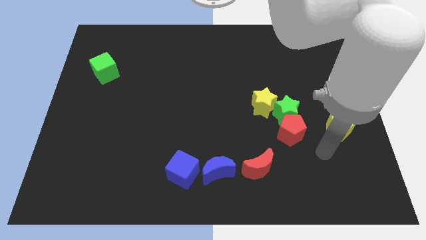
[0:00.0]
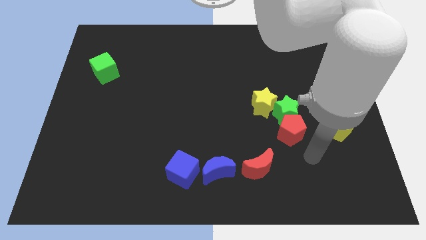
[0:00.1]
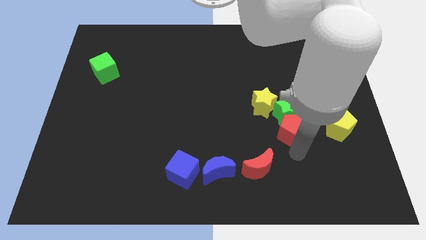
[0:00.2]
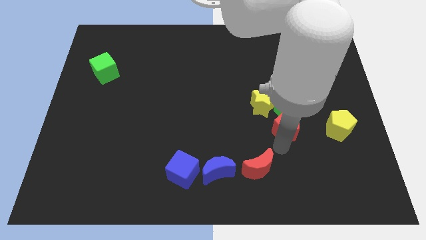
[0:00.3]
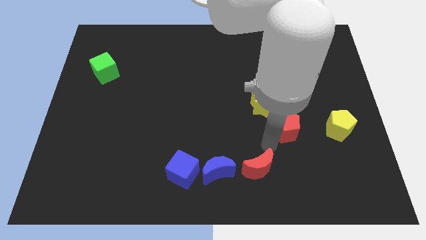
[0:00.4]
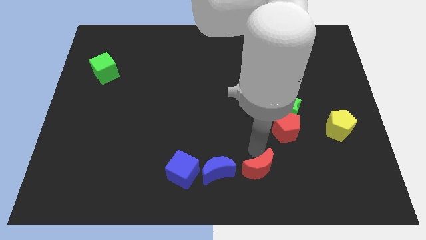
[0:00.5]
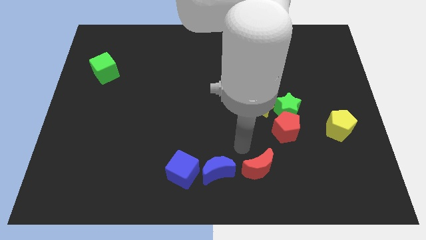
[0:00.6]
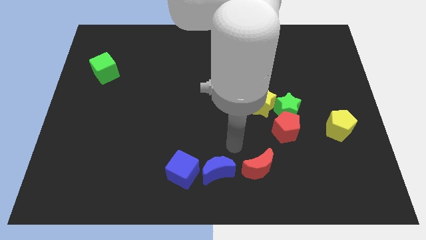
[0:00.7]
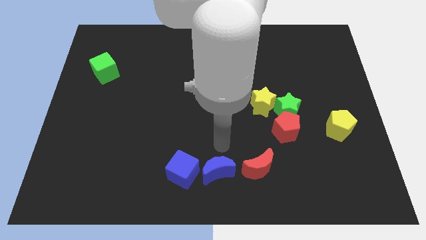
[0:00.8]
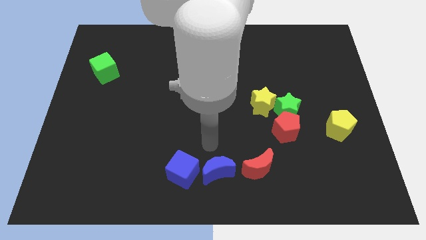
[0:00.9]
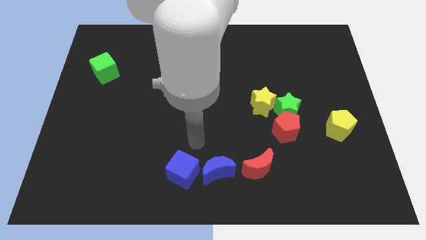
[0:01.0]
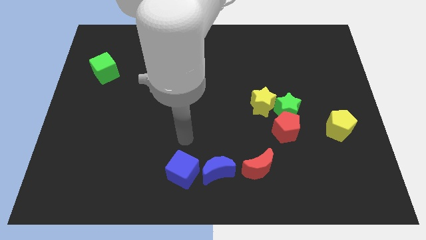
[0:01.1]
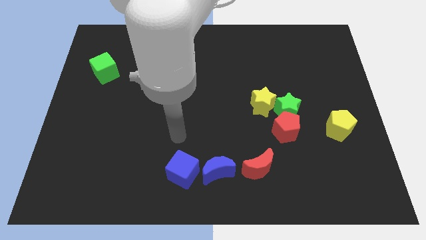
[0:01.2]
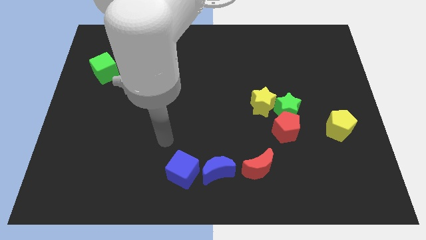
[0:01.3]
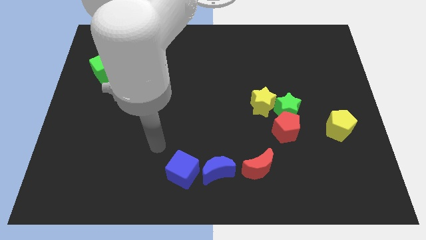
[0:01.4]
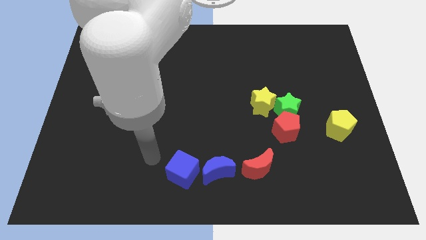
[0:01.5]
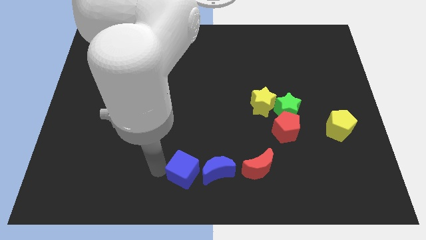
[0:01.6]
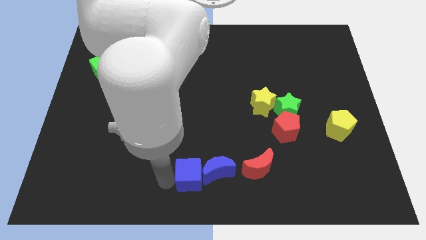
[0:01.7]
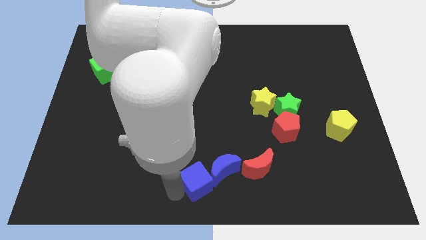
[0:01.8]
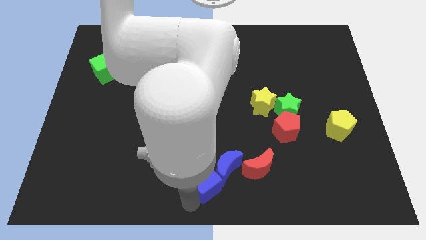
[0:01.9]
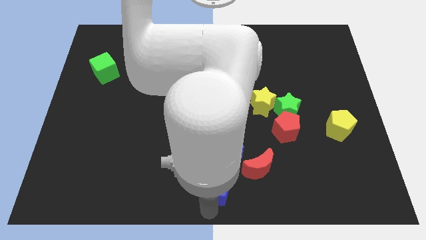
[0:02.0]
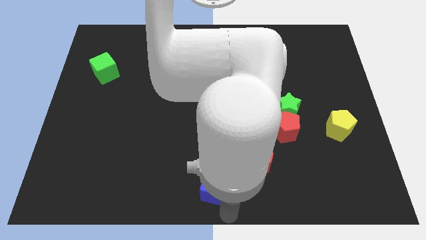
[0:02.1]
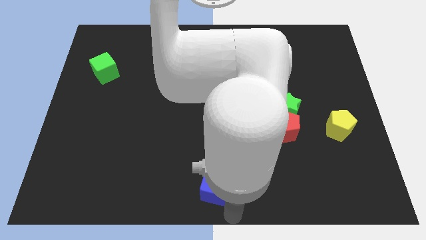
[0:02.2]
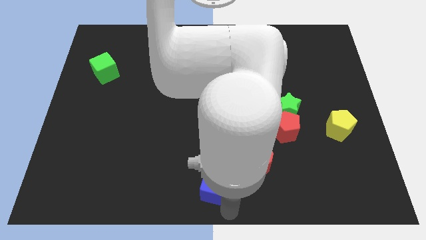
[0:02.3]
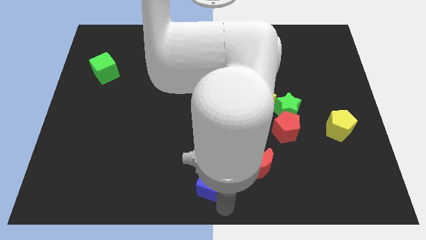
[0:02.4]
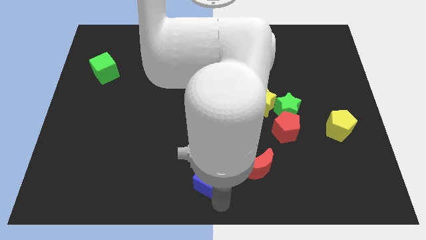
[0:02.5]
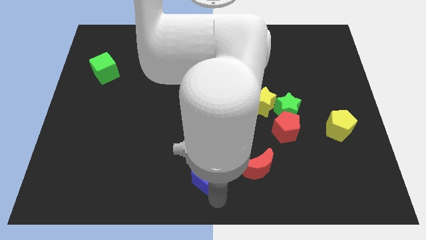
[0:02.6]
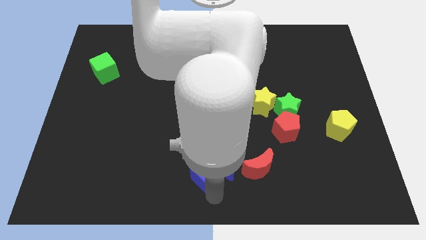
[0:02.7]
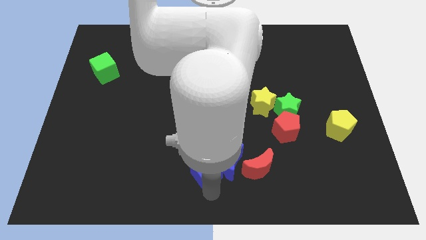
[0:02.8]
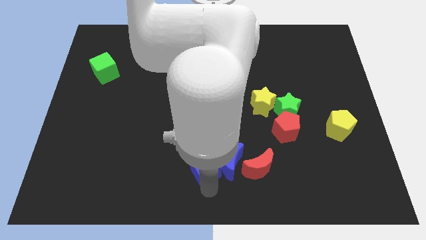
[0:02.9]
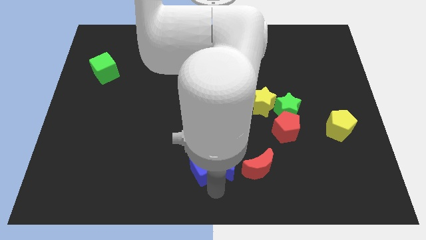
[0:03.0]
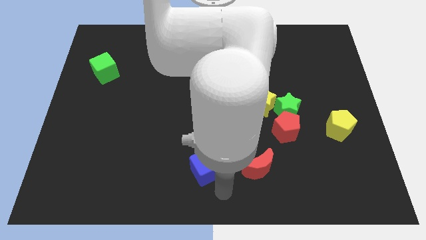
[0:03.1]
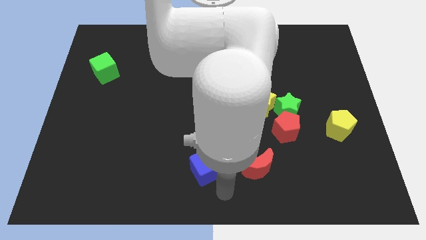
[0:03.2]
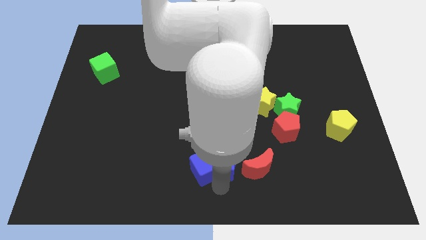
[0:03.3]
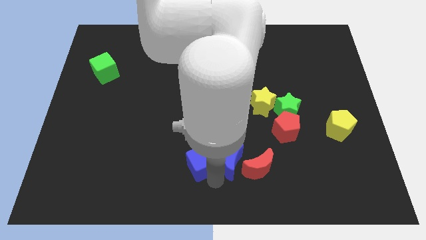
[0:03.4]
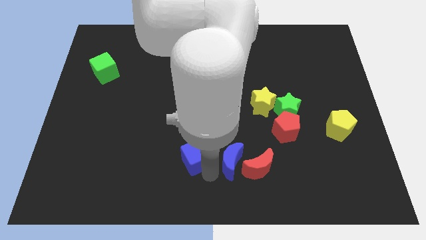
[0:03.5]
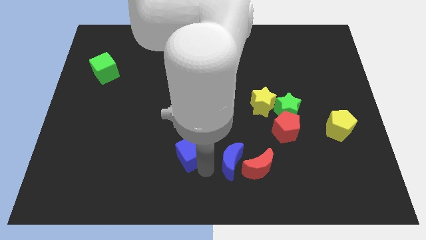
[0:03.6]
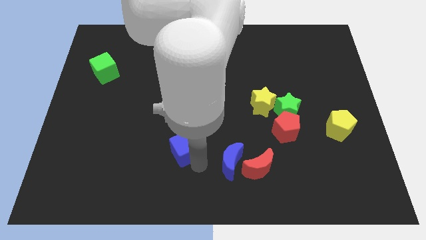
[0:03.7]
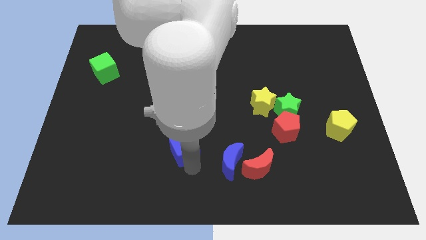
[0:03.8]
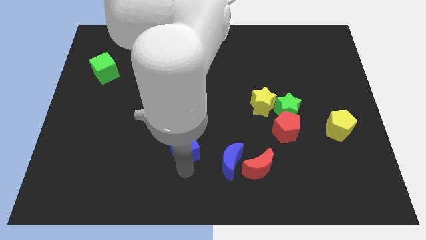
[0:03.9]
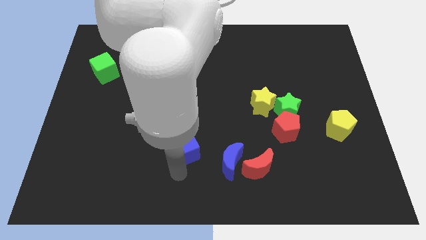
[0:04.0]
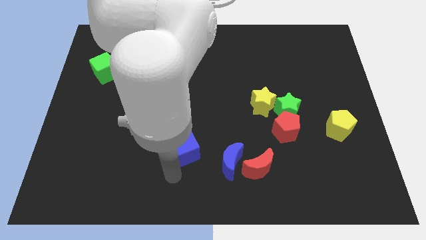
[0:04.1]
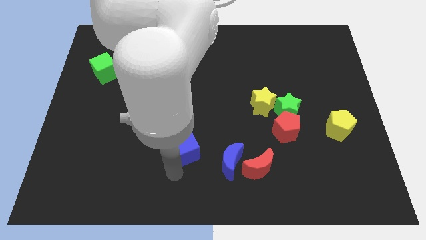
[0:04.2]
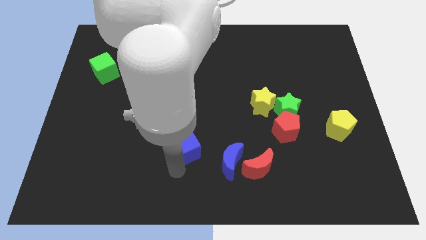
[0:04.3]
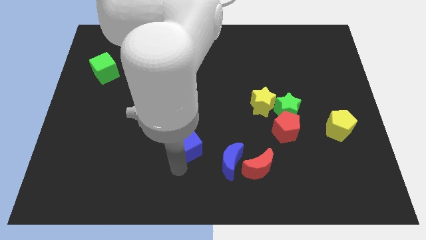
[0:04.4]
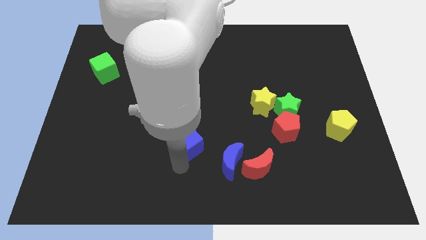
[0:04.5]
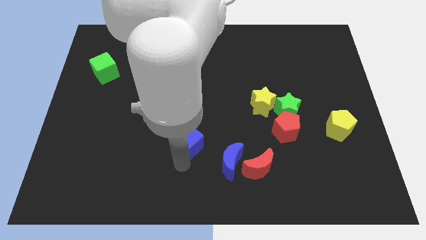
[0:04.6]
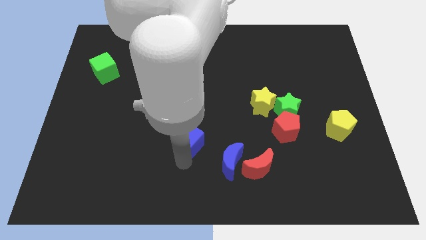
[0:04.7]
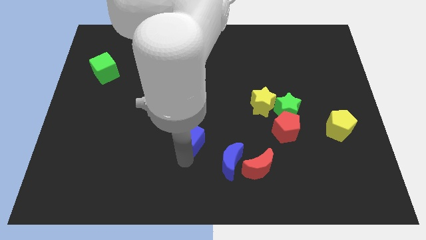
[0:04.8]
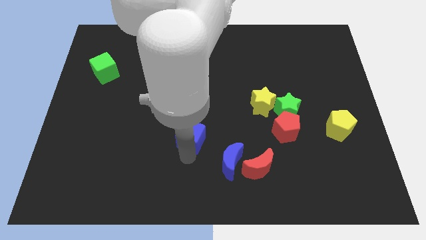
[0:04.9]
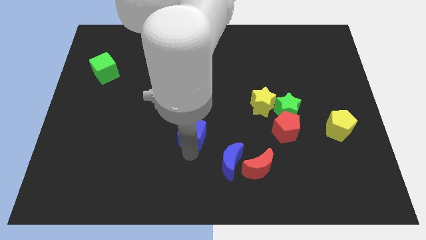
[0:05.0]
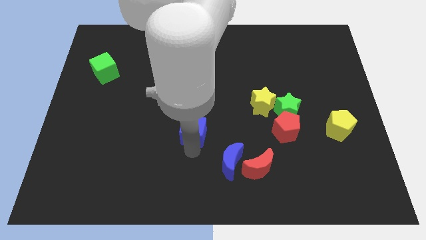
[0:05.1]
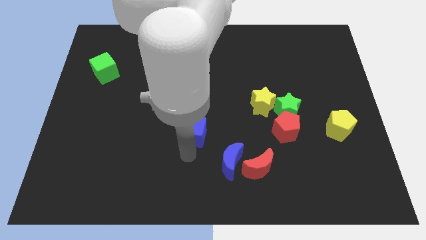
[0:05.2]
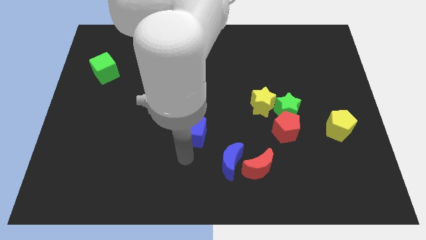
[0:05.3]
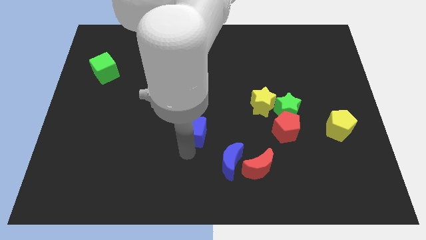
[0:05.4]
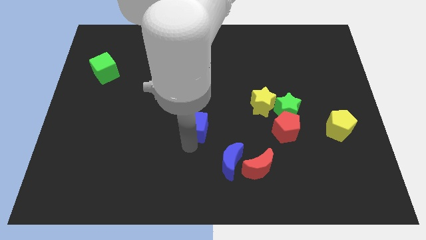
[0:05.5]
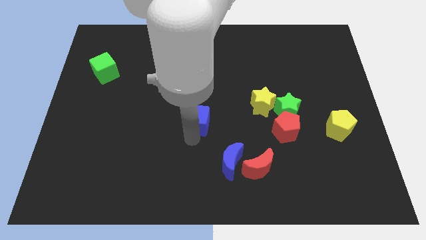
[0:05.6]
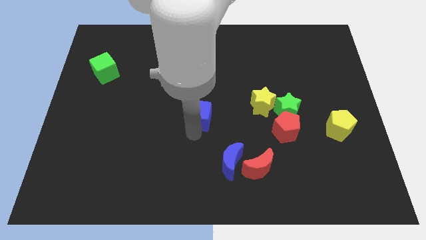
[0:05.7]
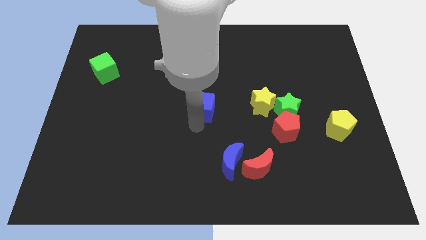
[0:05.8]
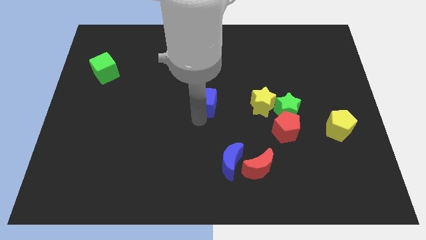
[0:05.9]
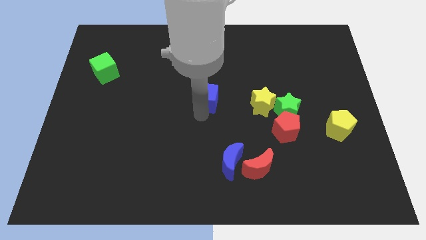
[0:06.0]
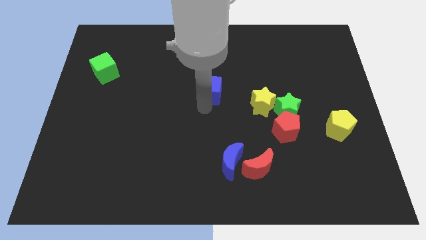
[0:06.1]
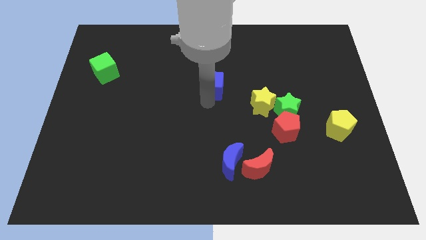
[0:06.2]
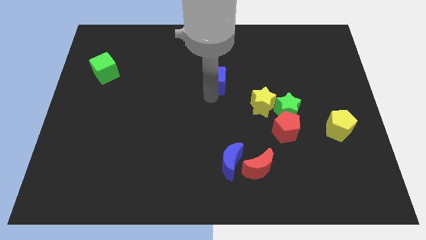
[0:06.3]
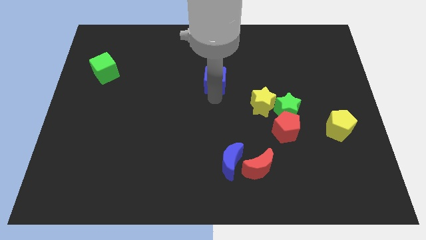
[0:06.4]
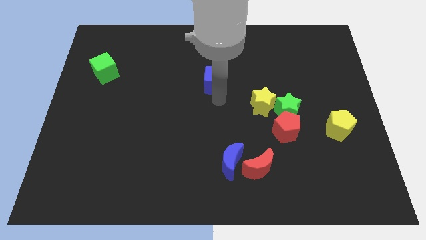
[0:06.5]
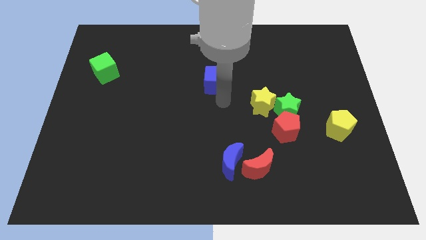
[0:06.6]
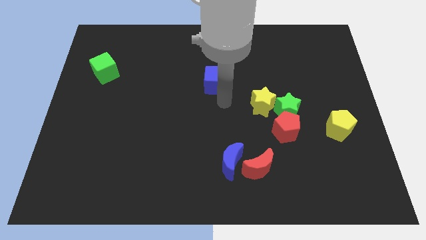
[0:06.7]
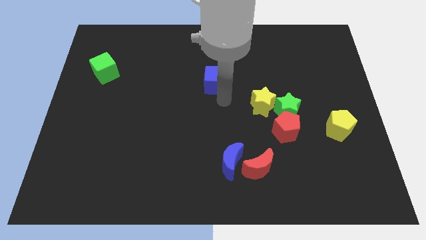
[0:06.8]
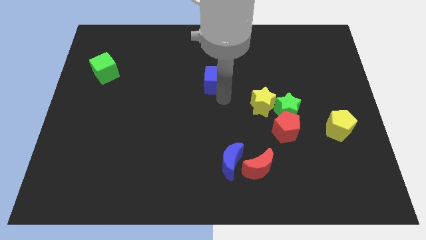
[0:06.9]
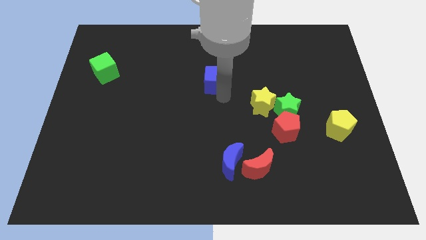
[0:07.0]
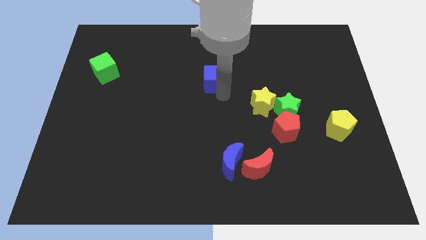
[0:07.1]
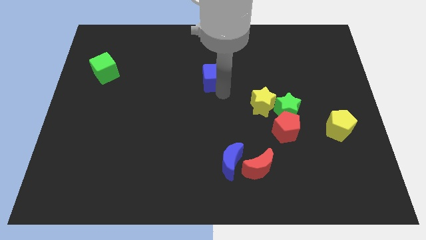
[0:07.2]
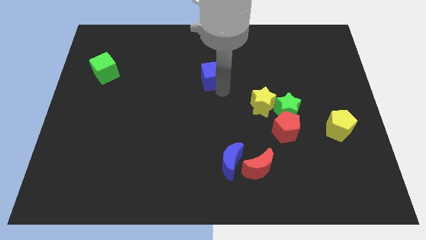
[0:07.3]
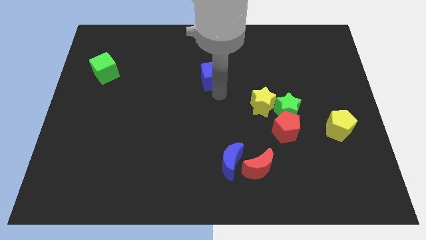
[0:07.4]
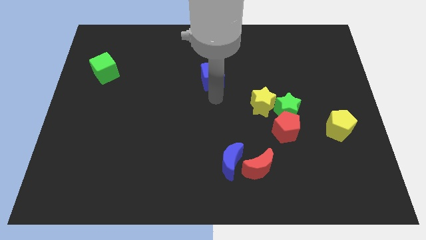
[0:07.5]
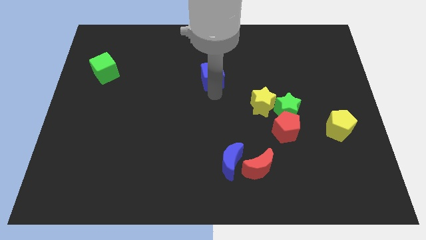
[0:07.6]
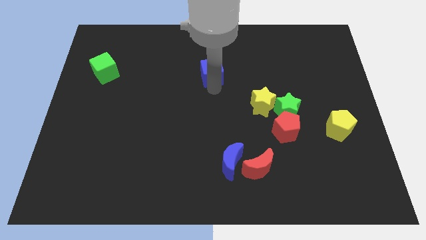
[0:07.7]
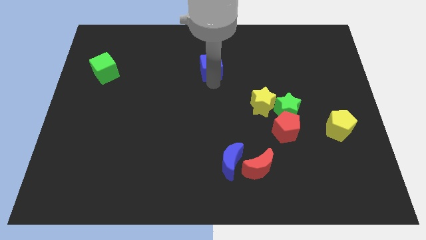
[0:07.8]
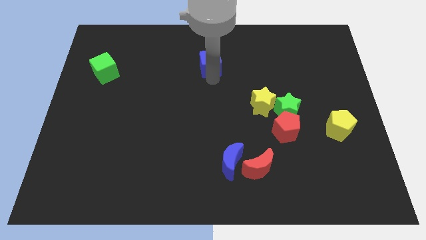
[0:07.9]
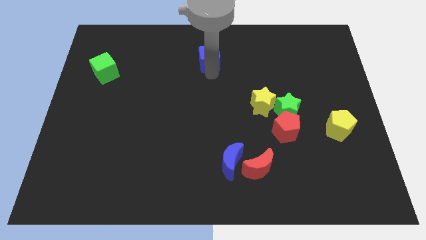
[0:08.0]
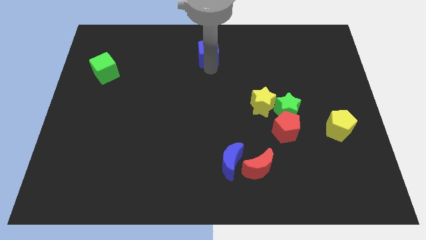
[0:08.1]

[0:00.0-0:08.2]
put the blue cube to the towards your base
